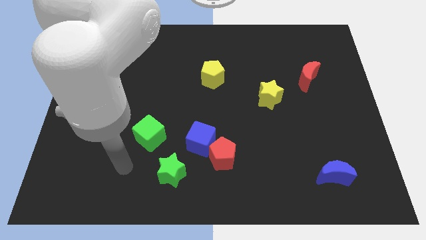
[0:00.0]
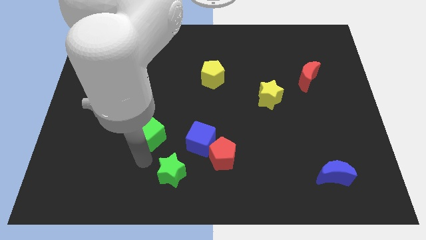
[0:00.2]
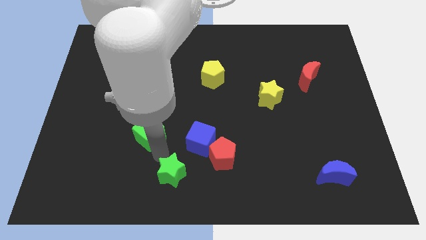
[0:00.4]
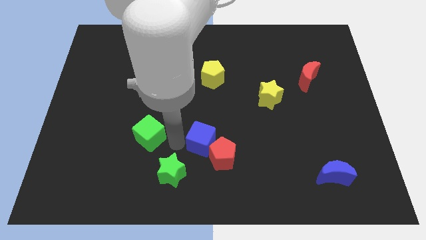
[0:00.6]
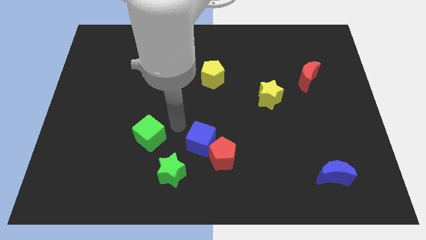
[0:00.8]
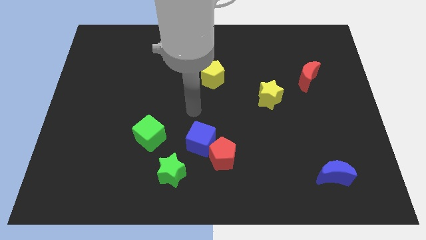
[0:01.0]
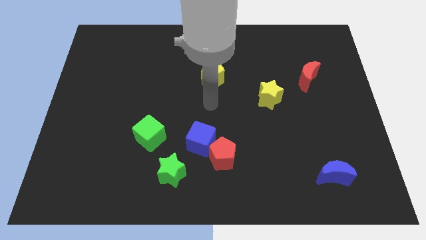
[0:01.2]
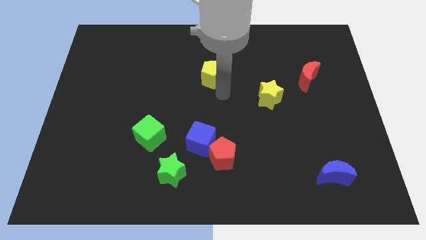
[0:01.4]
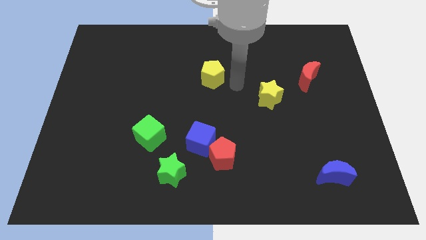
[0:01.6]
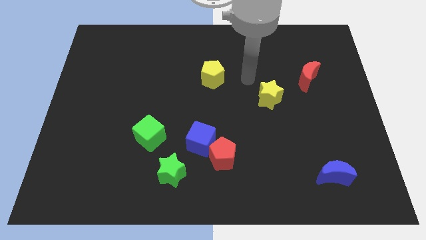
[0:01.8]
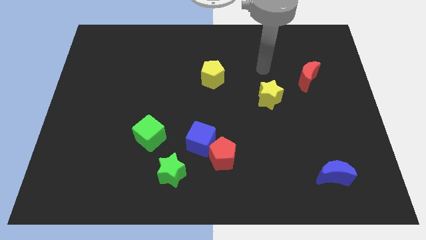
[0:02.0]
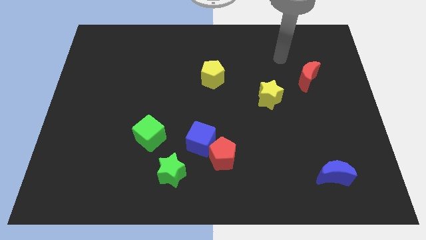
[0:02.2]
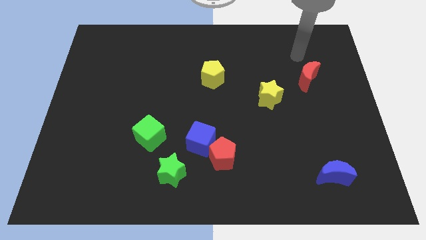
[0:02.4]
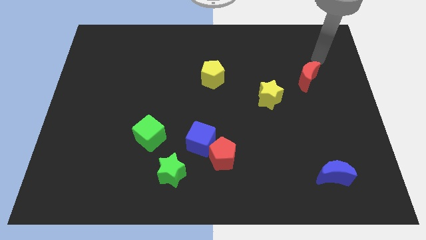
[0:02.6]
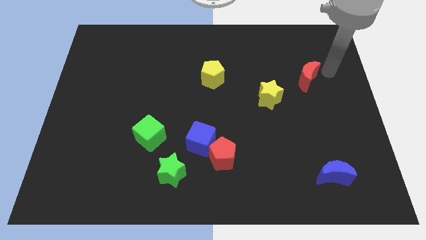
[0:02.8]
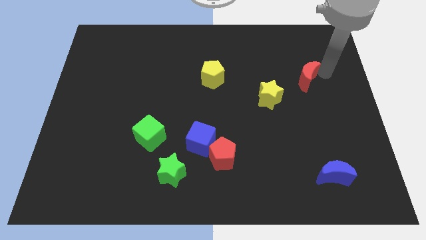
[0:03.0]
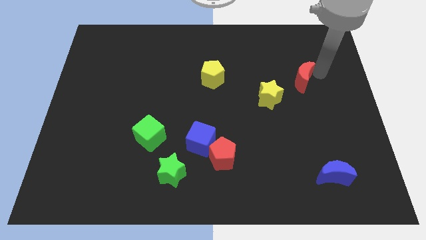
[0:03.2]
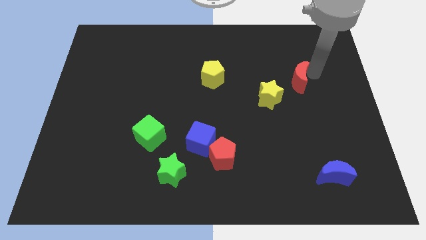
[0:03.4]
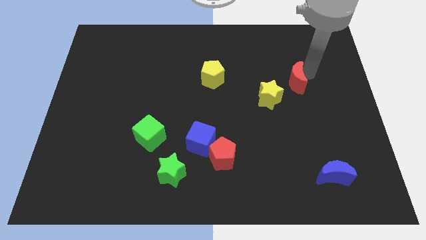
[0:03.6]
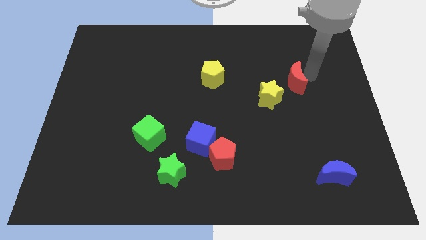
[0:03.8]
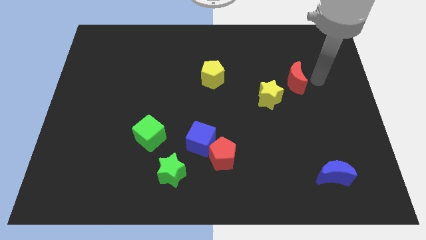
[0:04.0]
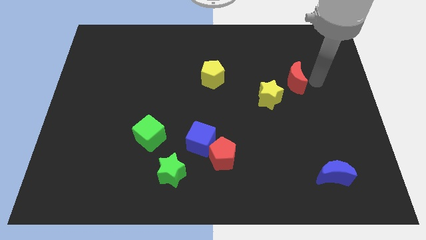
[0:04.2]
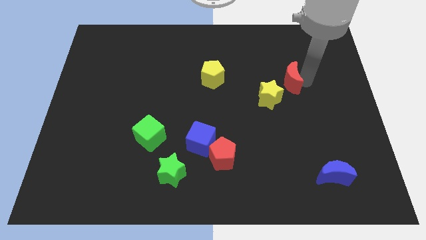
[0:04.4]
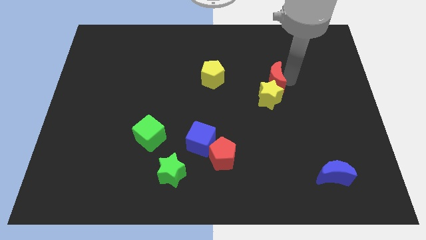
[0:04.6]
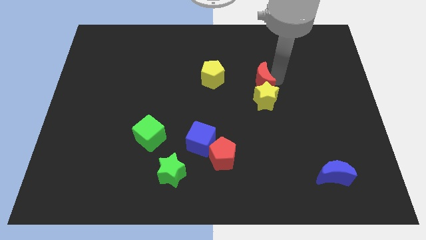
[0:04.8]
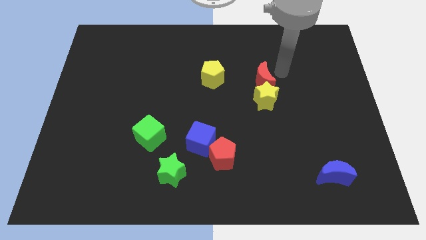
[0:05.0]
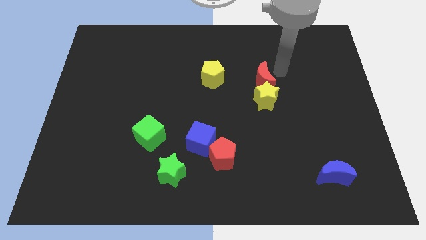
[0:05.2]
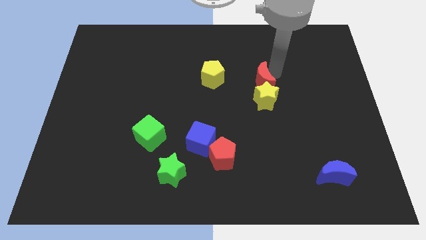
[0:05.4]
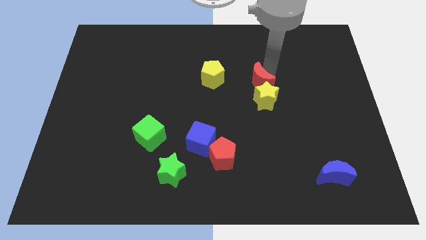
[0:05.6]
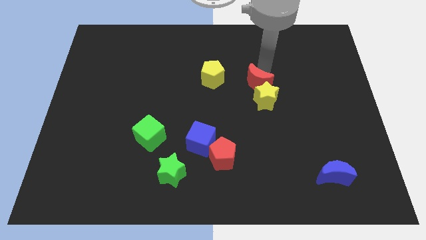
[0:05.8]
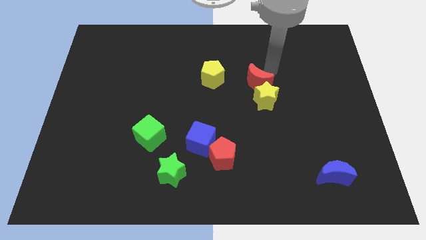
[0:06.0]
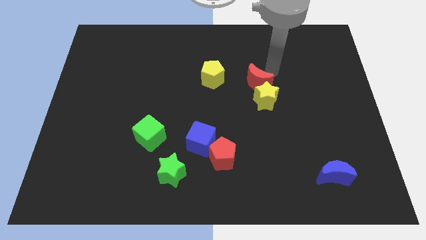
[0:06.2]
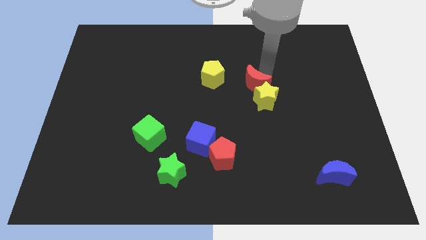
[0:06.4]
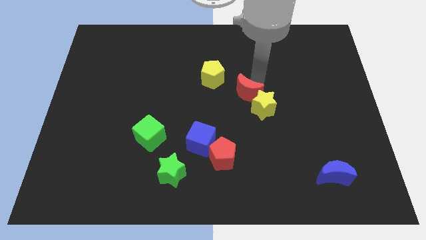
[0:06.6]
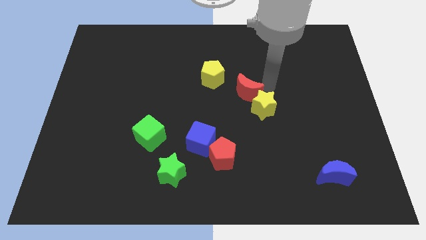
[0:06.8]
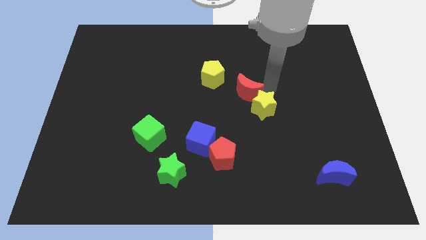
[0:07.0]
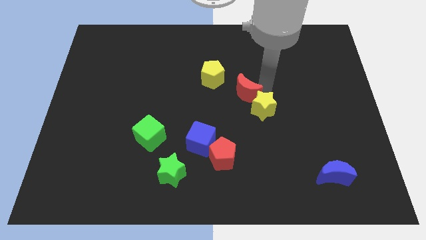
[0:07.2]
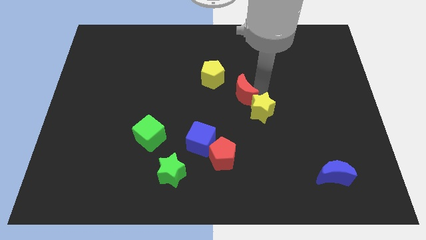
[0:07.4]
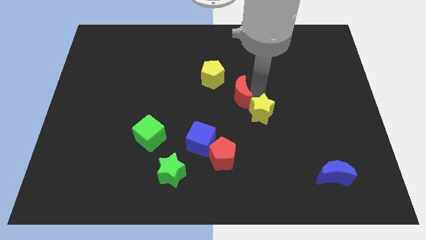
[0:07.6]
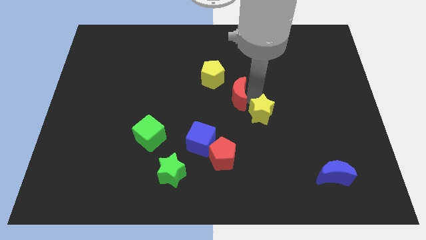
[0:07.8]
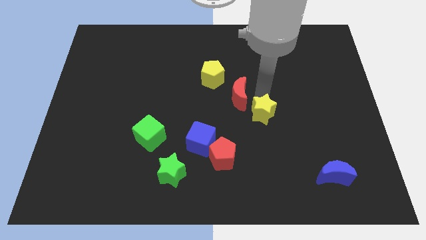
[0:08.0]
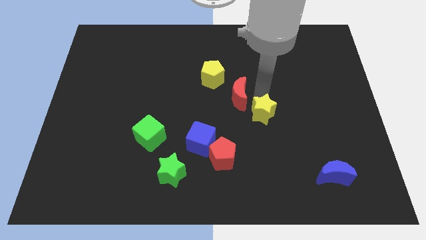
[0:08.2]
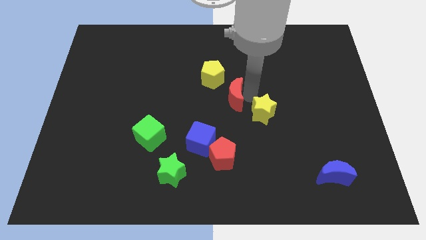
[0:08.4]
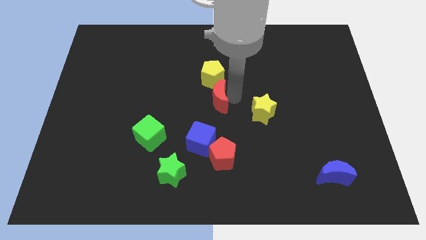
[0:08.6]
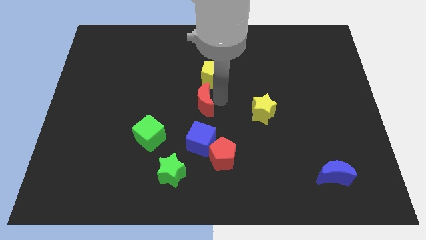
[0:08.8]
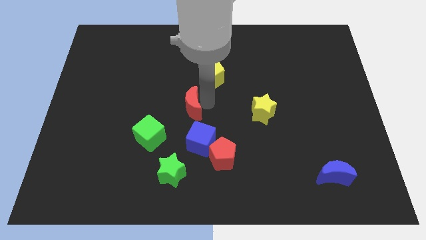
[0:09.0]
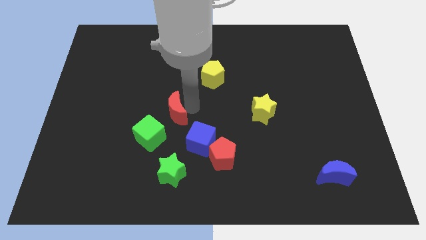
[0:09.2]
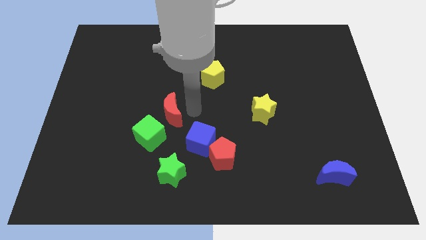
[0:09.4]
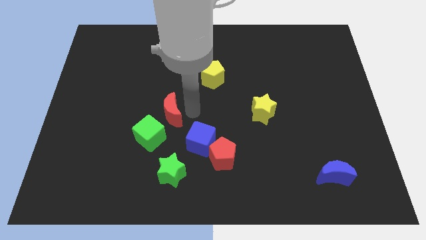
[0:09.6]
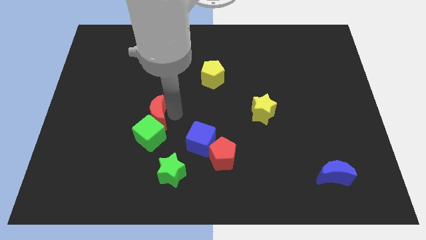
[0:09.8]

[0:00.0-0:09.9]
put the red moon to the top left side of the green cube

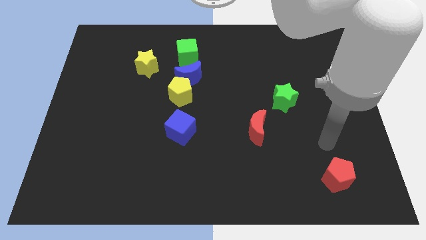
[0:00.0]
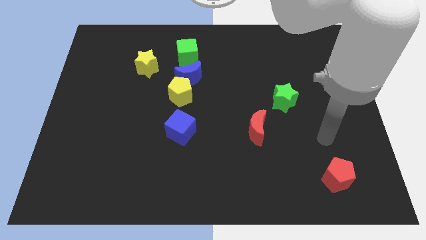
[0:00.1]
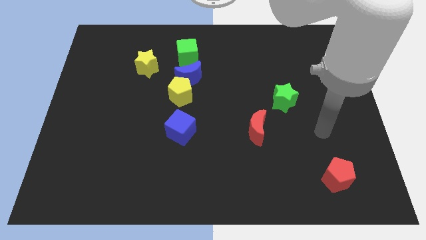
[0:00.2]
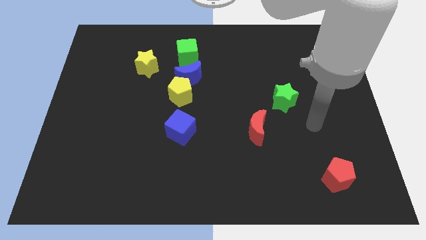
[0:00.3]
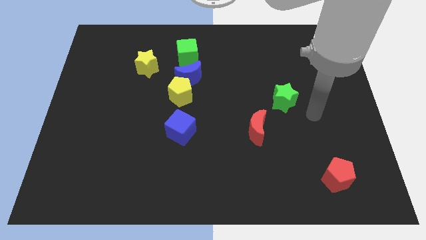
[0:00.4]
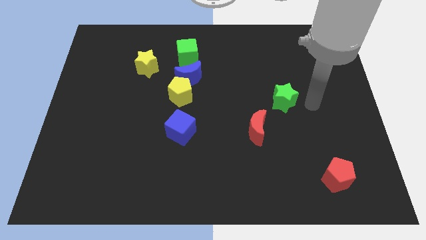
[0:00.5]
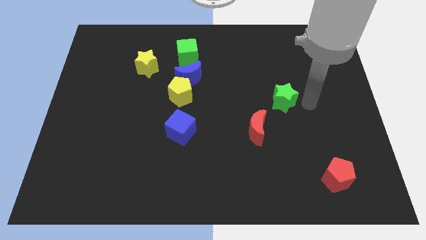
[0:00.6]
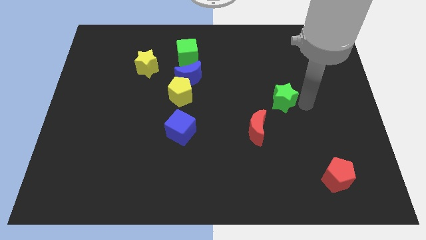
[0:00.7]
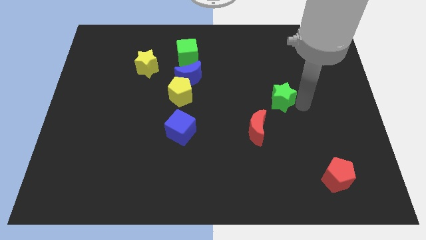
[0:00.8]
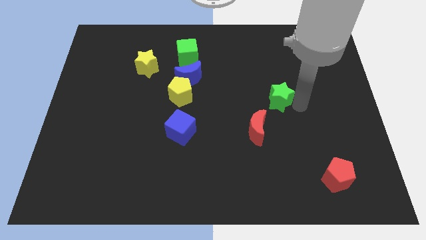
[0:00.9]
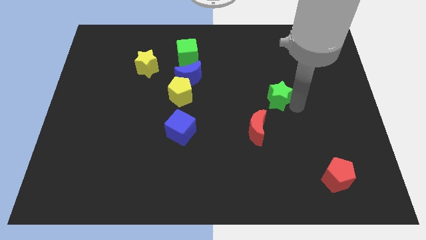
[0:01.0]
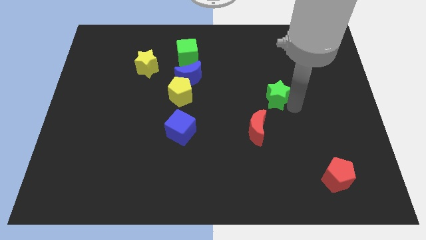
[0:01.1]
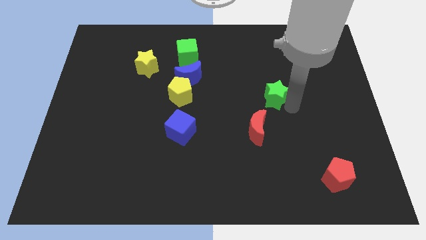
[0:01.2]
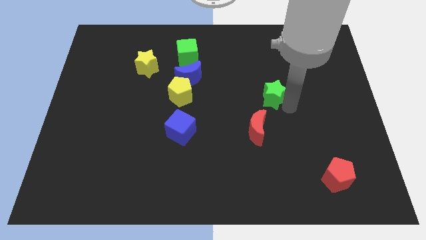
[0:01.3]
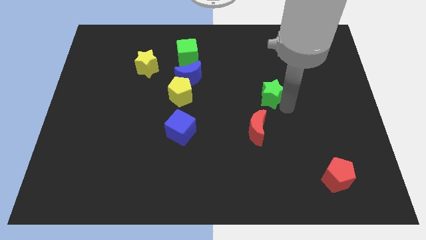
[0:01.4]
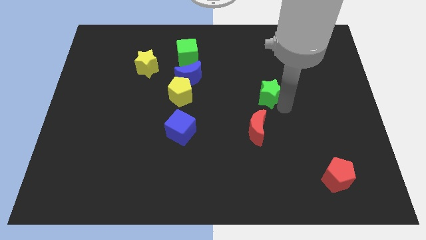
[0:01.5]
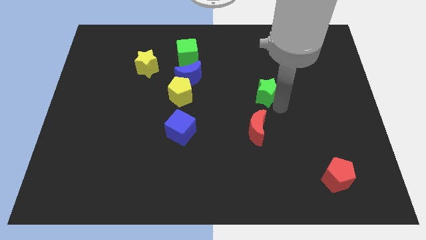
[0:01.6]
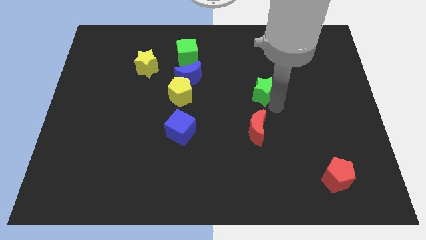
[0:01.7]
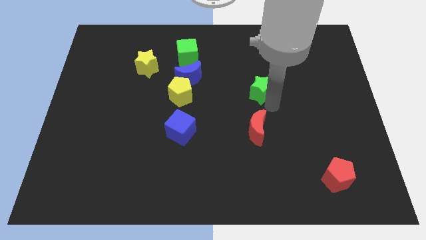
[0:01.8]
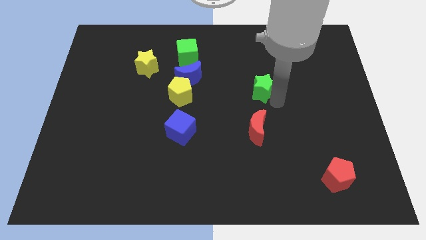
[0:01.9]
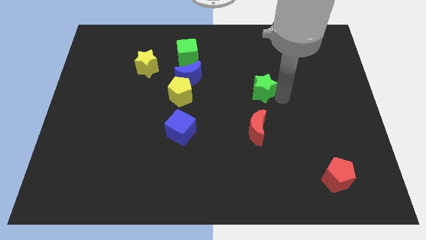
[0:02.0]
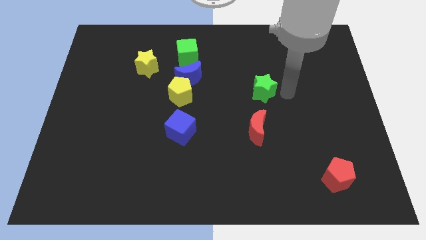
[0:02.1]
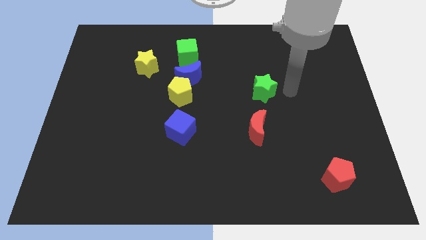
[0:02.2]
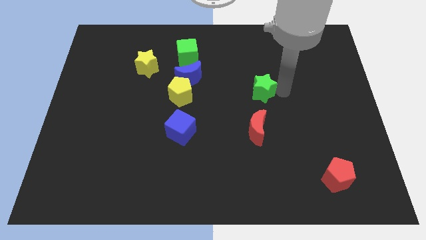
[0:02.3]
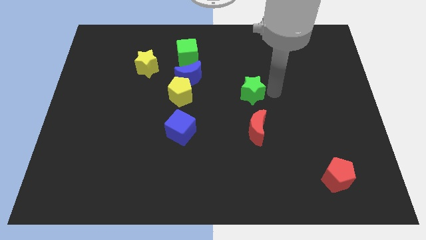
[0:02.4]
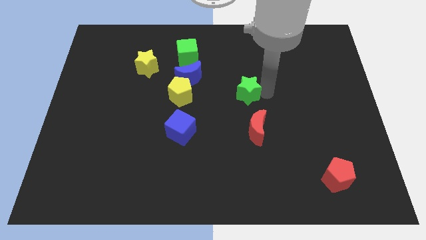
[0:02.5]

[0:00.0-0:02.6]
slide the green star to the right of the yellow pentagon

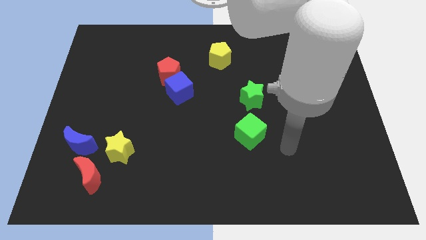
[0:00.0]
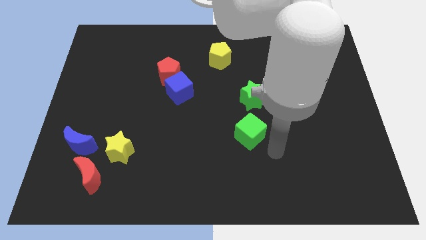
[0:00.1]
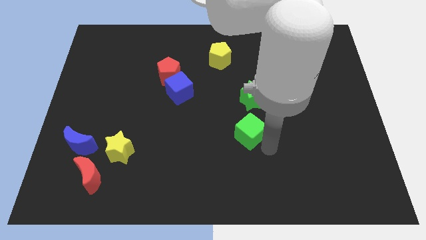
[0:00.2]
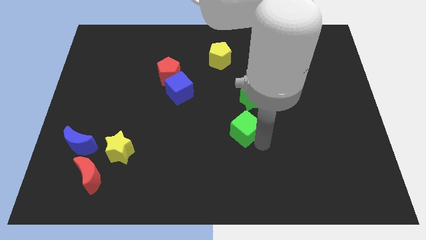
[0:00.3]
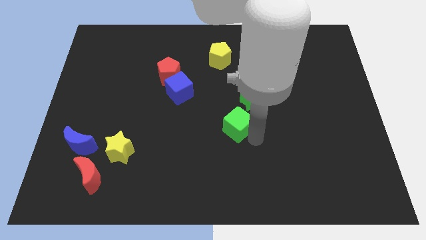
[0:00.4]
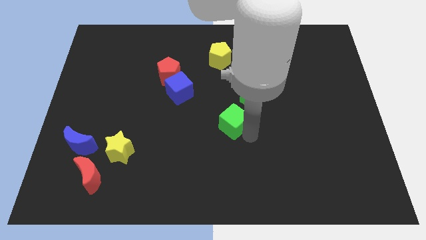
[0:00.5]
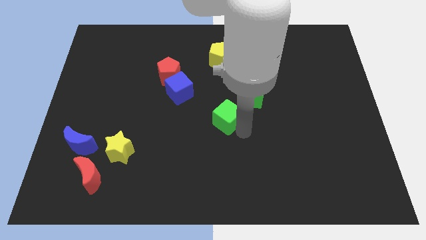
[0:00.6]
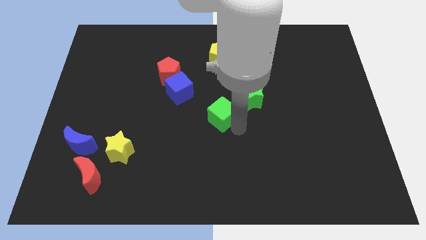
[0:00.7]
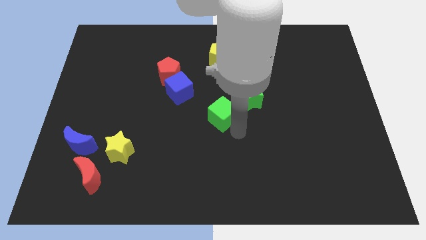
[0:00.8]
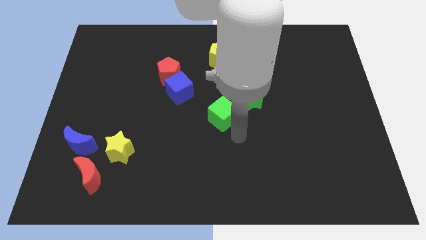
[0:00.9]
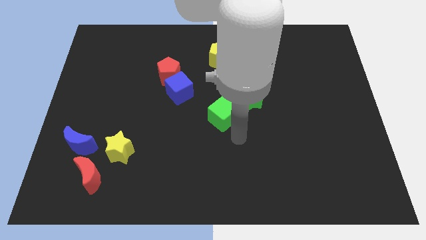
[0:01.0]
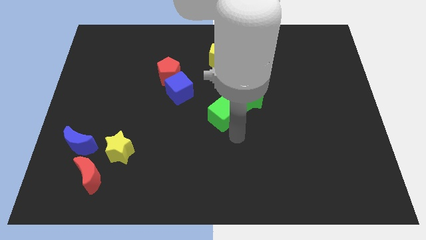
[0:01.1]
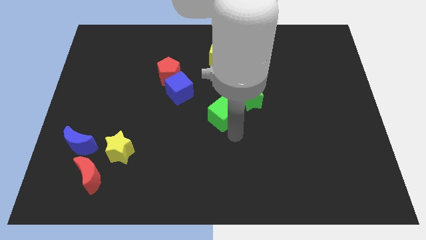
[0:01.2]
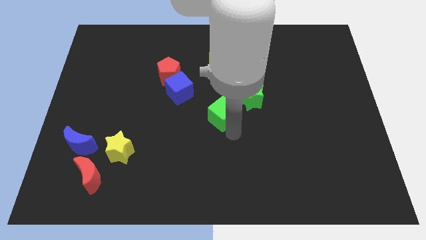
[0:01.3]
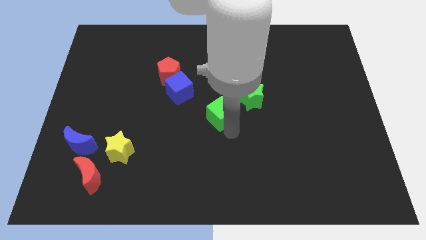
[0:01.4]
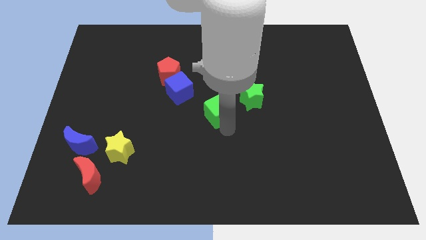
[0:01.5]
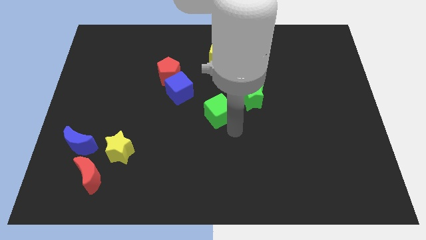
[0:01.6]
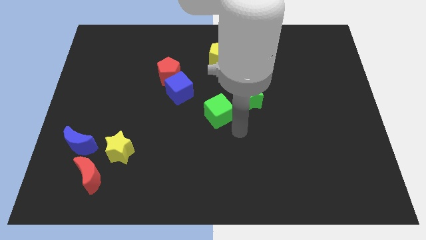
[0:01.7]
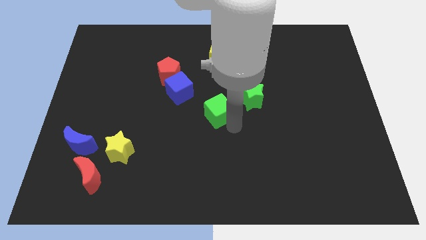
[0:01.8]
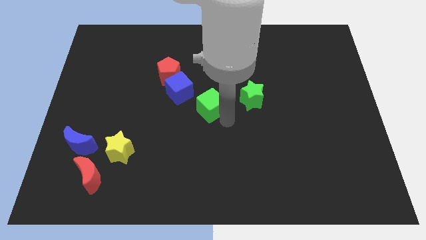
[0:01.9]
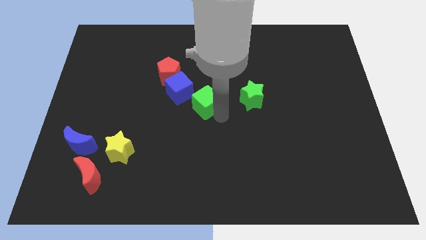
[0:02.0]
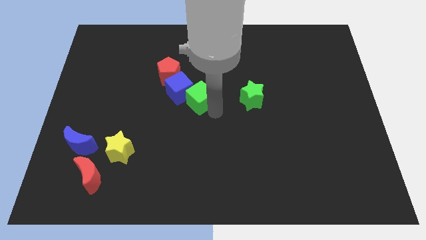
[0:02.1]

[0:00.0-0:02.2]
push the green cube diagonally down and to the right of the red pentagon
